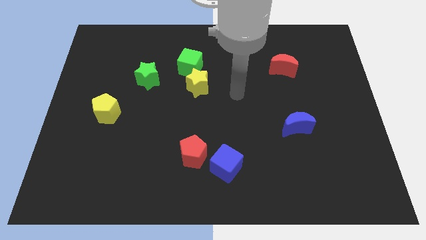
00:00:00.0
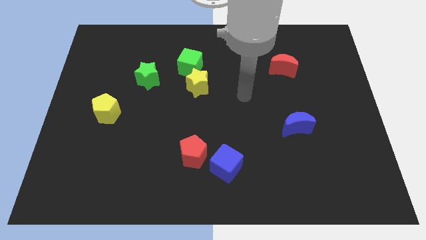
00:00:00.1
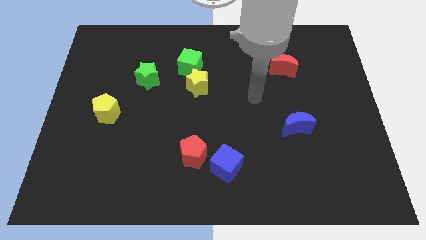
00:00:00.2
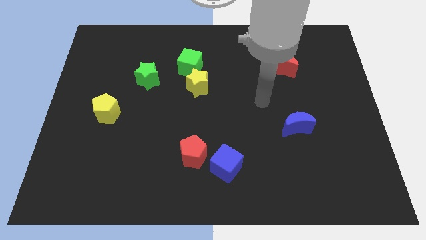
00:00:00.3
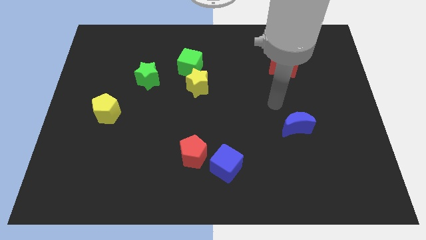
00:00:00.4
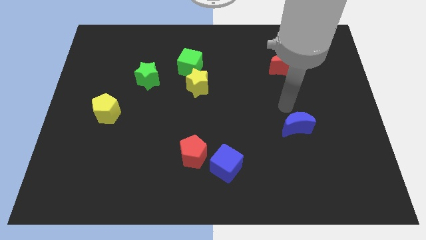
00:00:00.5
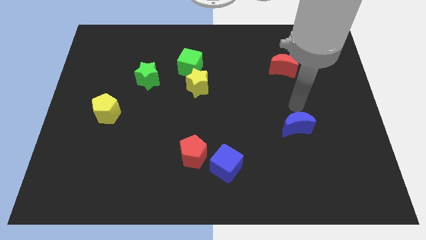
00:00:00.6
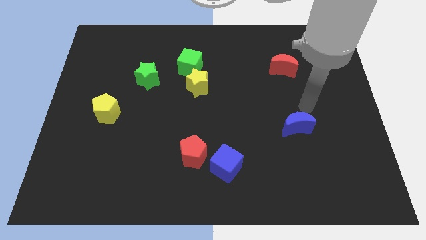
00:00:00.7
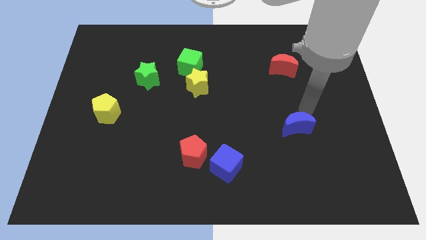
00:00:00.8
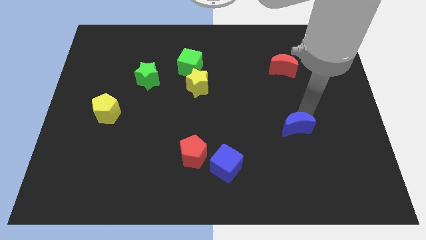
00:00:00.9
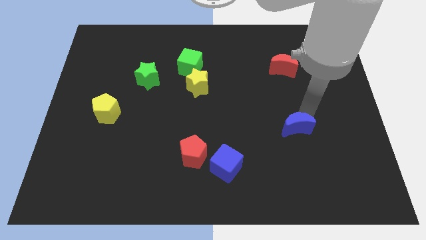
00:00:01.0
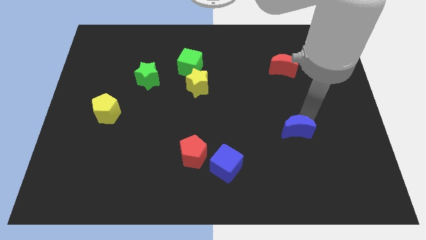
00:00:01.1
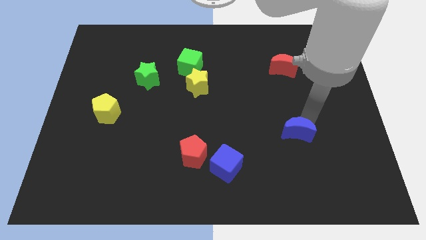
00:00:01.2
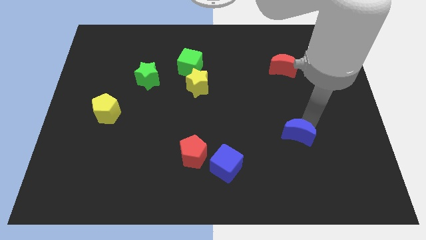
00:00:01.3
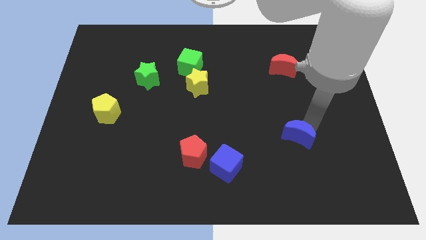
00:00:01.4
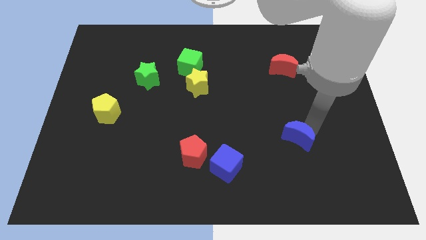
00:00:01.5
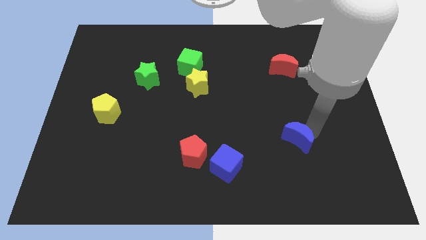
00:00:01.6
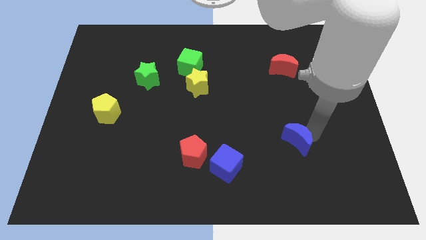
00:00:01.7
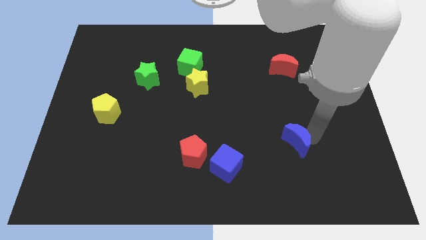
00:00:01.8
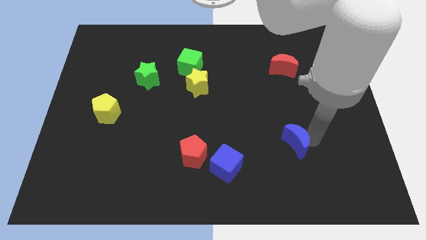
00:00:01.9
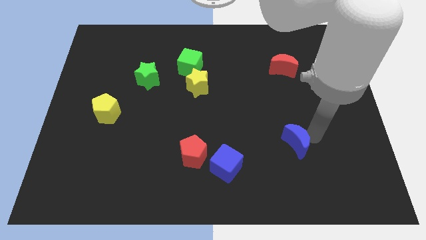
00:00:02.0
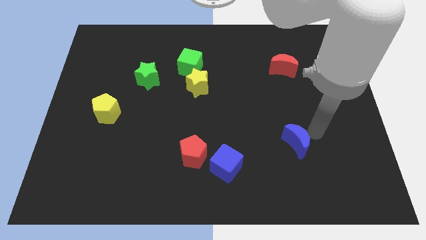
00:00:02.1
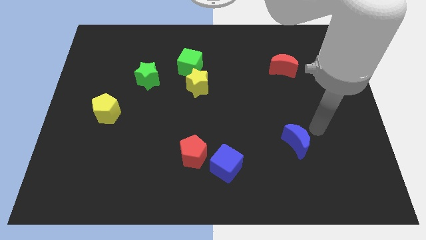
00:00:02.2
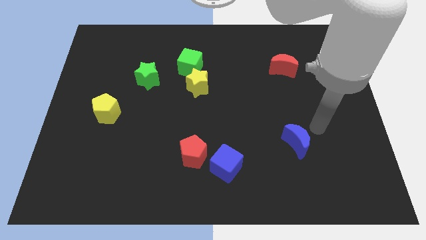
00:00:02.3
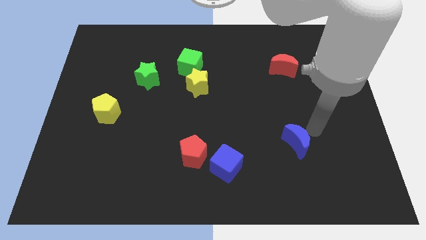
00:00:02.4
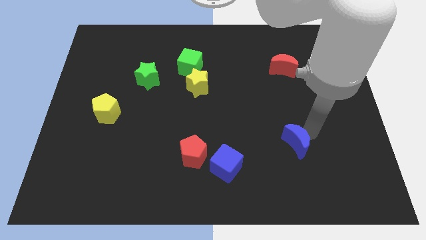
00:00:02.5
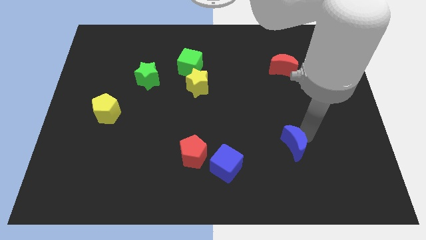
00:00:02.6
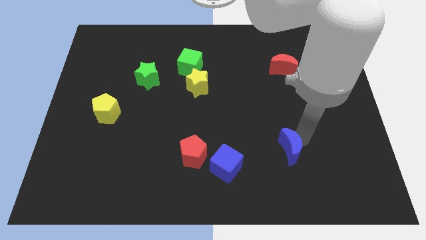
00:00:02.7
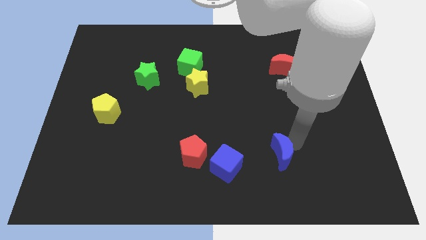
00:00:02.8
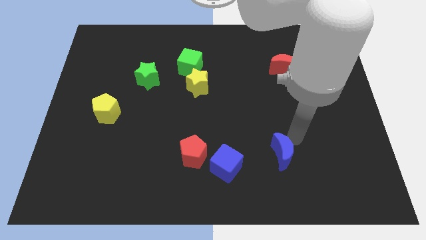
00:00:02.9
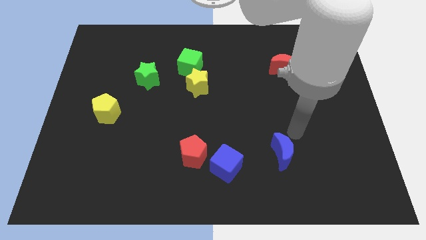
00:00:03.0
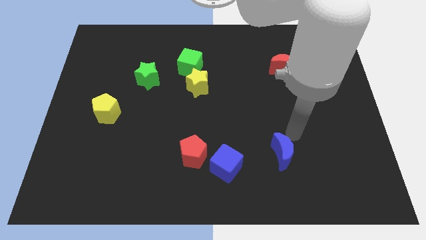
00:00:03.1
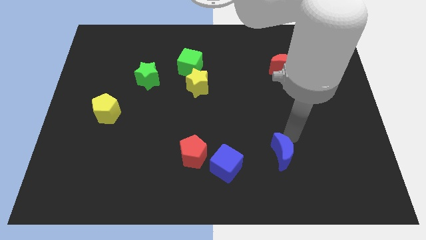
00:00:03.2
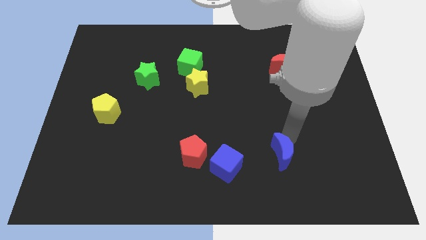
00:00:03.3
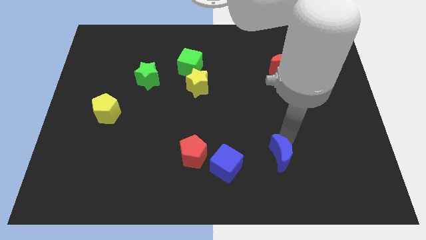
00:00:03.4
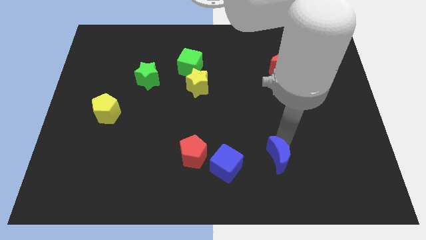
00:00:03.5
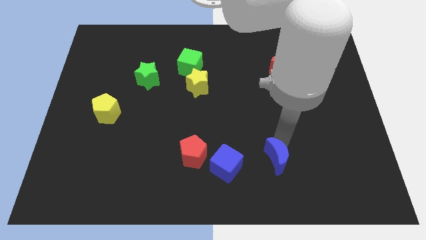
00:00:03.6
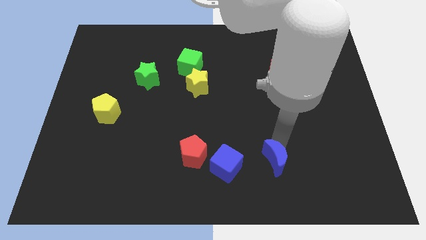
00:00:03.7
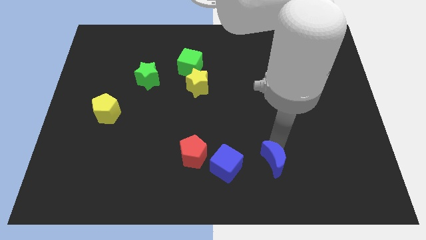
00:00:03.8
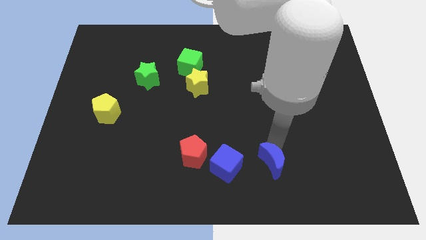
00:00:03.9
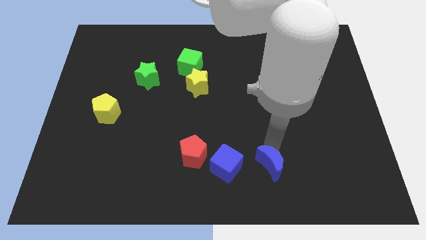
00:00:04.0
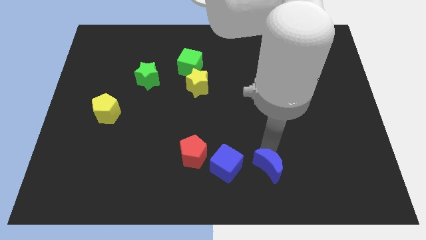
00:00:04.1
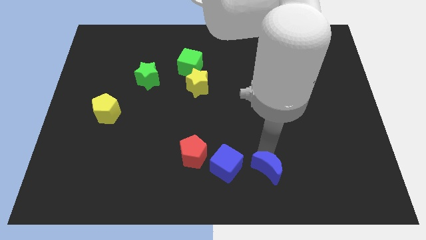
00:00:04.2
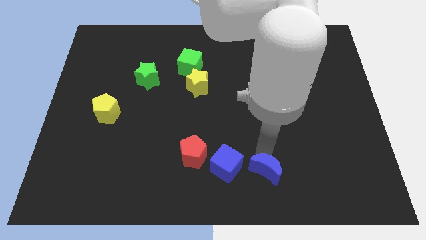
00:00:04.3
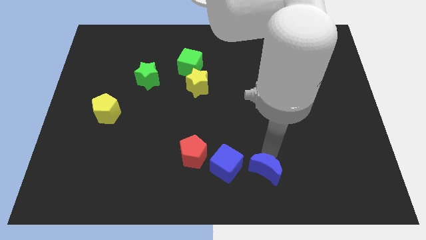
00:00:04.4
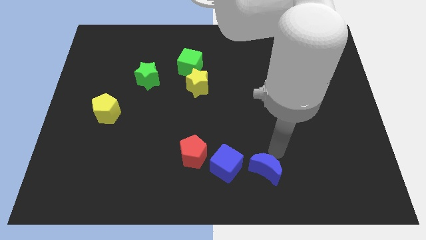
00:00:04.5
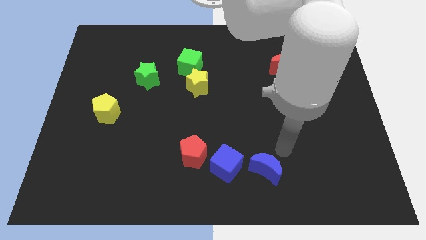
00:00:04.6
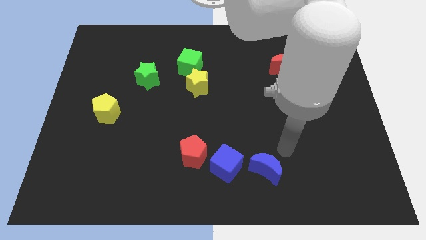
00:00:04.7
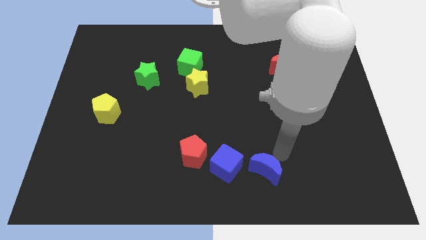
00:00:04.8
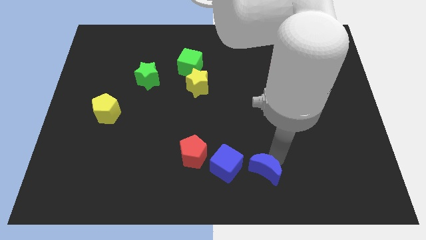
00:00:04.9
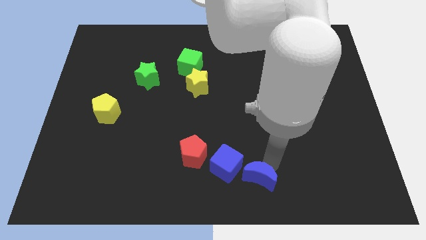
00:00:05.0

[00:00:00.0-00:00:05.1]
slide the blue moon to the bottom side

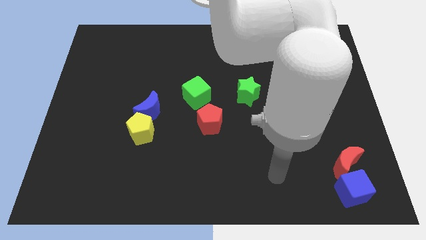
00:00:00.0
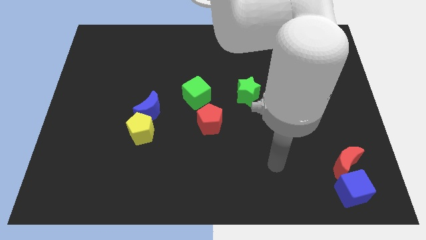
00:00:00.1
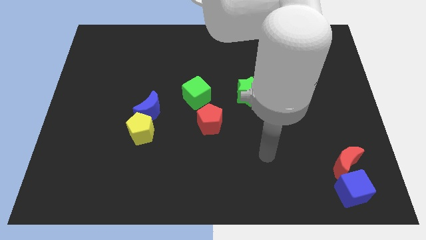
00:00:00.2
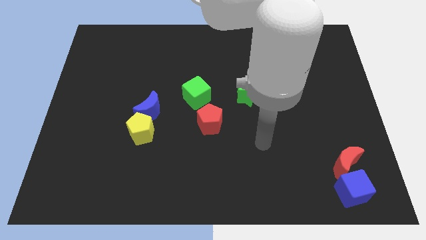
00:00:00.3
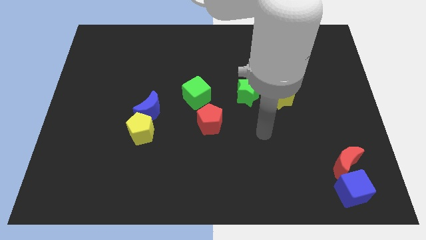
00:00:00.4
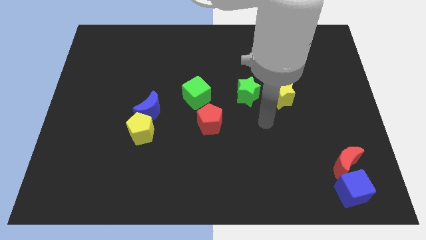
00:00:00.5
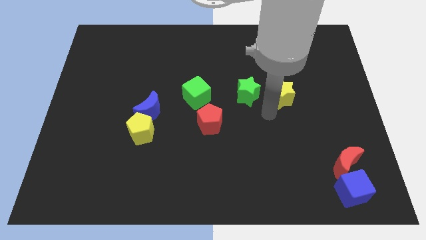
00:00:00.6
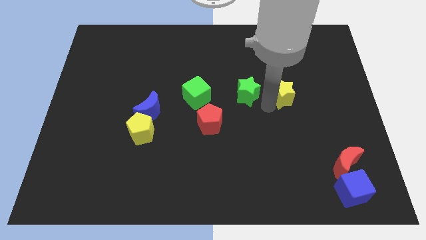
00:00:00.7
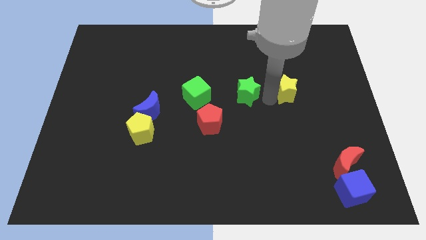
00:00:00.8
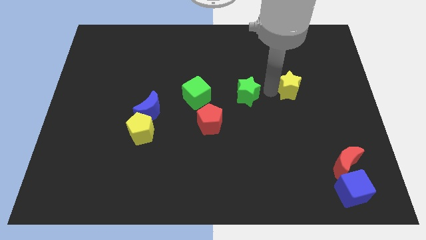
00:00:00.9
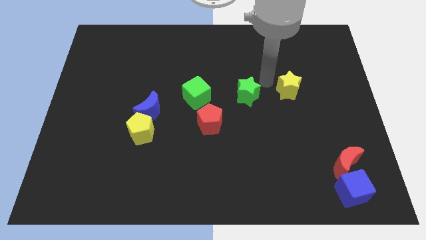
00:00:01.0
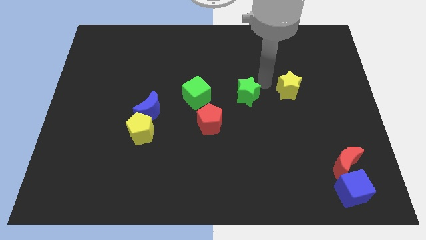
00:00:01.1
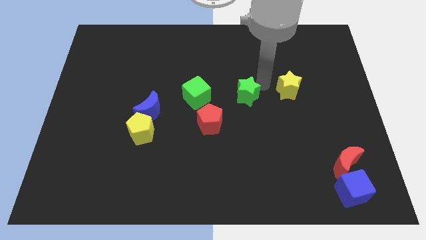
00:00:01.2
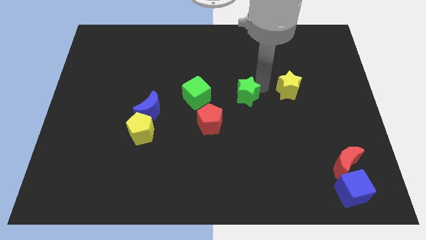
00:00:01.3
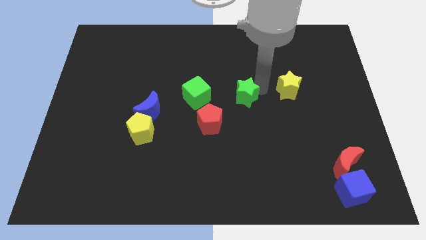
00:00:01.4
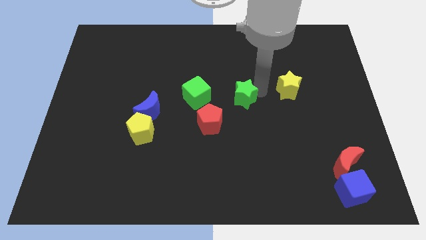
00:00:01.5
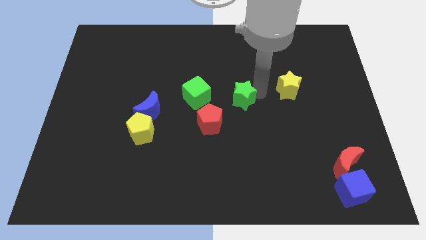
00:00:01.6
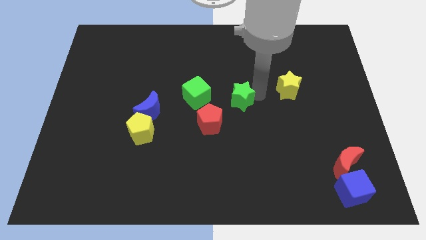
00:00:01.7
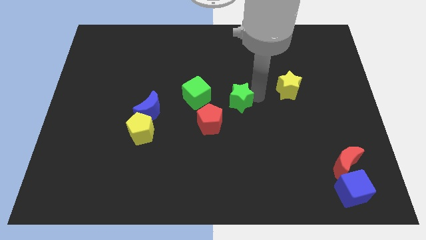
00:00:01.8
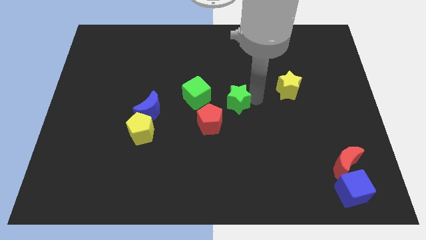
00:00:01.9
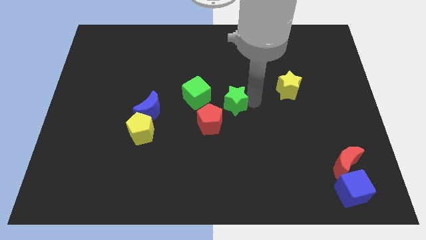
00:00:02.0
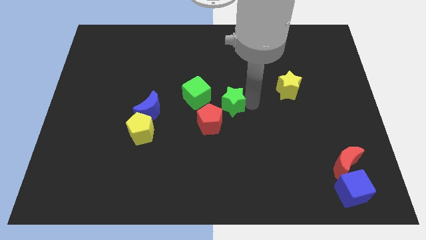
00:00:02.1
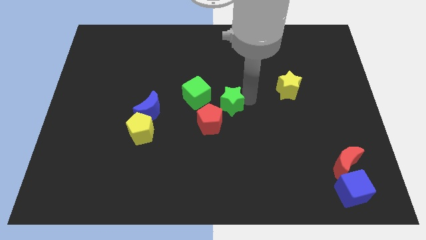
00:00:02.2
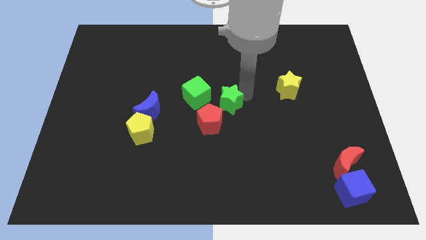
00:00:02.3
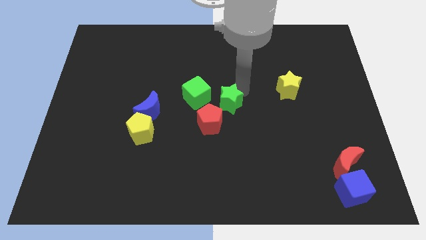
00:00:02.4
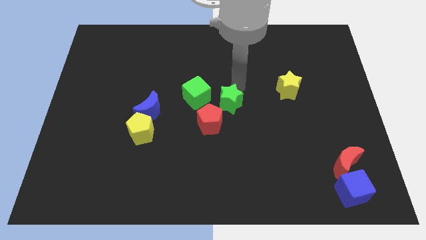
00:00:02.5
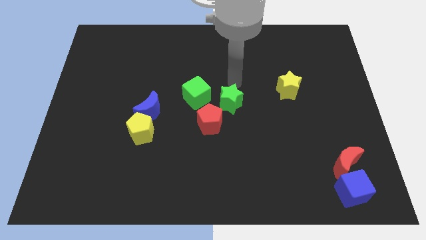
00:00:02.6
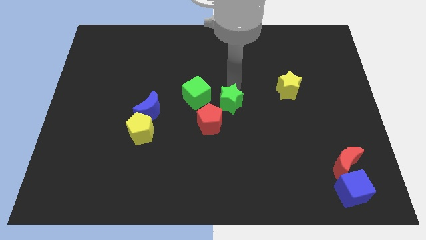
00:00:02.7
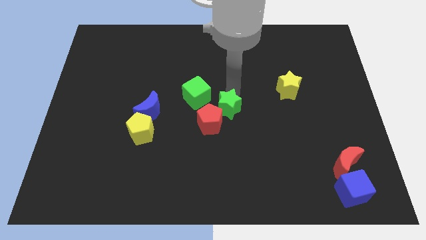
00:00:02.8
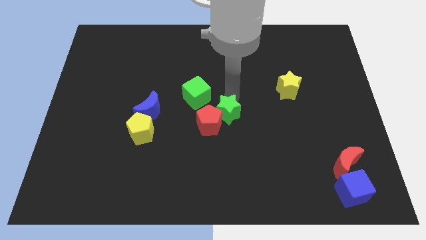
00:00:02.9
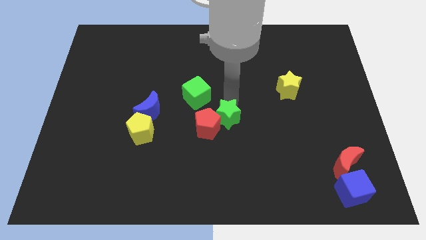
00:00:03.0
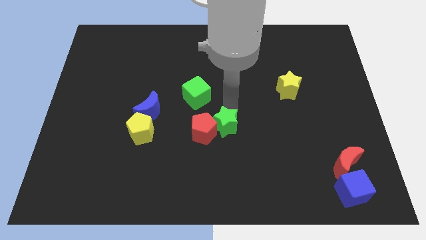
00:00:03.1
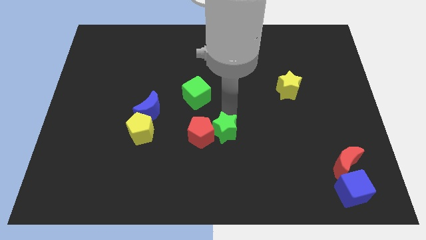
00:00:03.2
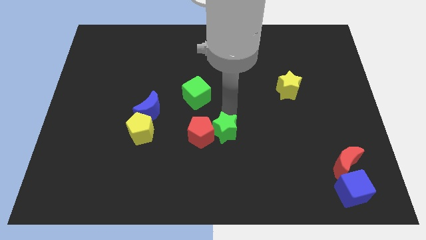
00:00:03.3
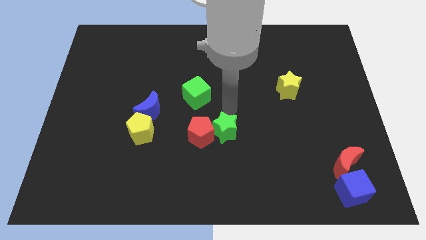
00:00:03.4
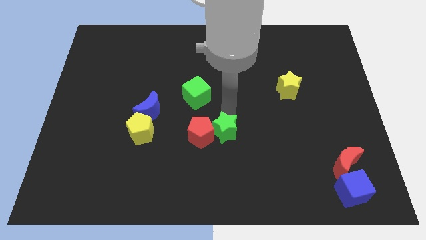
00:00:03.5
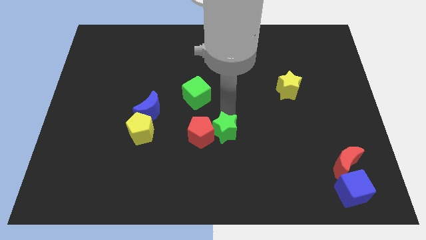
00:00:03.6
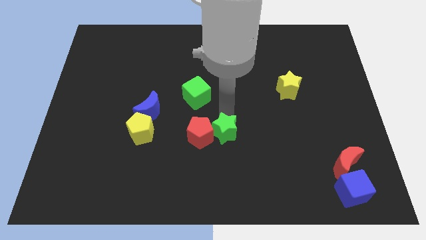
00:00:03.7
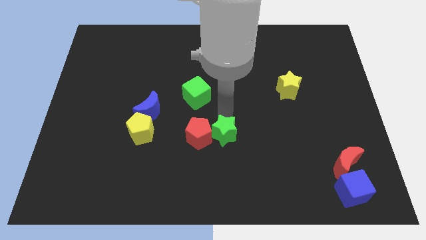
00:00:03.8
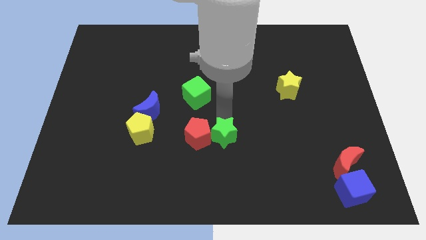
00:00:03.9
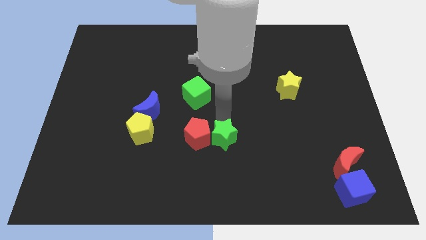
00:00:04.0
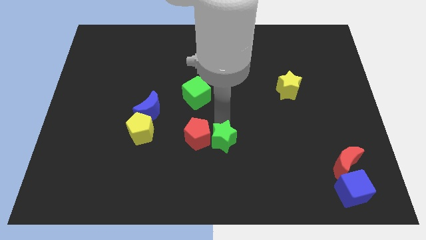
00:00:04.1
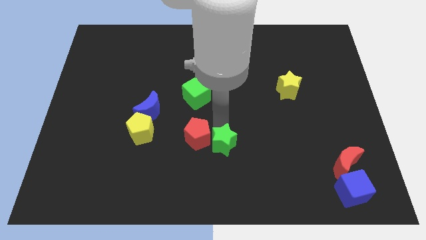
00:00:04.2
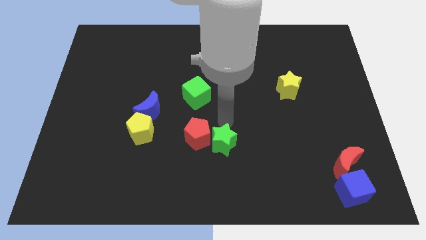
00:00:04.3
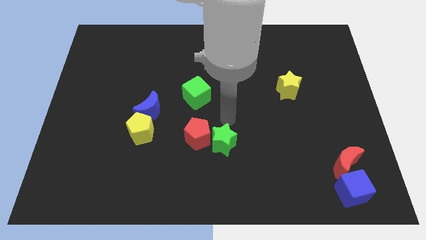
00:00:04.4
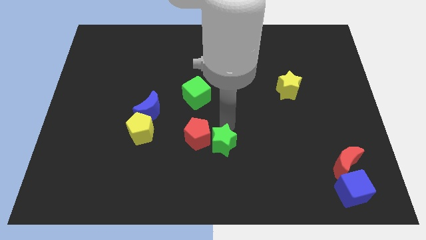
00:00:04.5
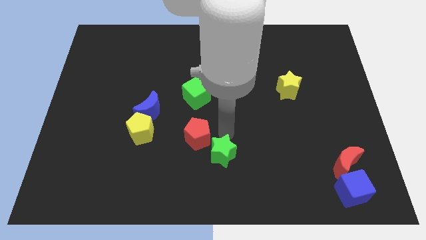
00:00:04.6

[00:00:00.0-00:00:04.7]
slide the green star to the bottom
